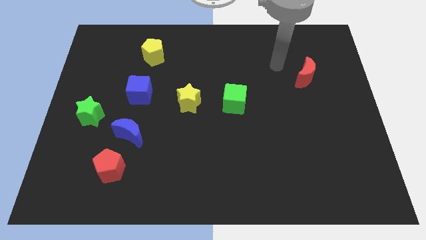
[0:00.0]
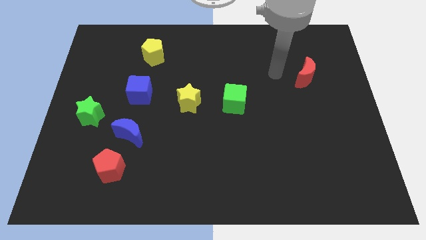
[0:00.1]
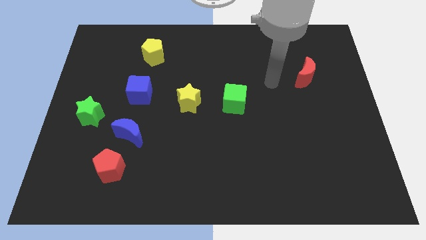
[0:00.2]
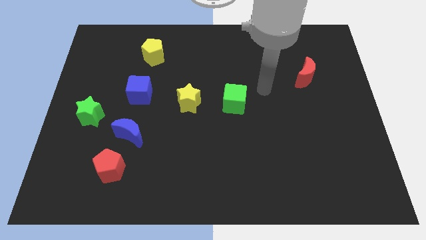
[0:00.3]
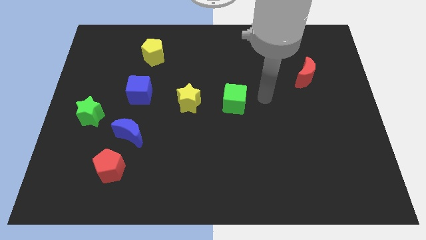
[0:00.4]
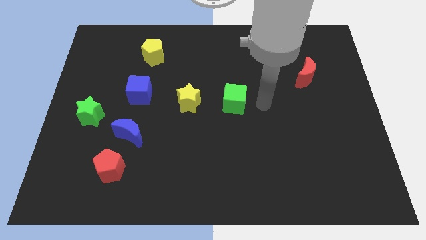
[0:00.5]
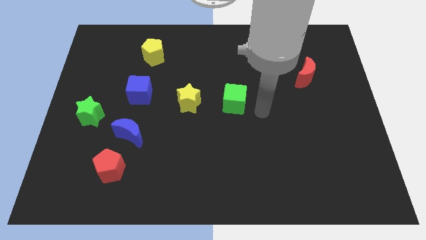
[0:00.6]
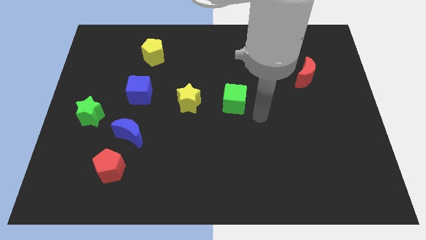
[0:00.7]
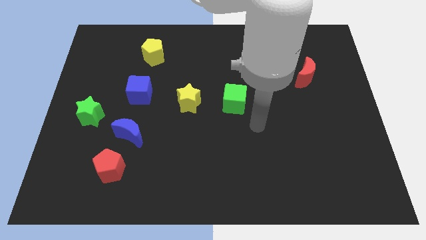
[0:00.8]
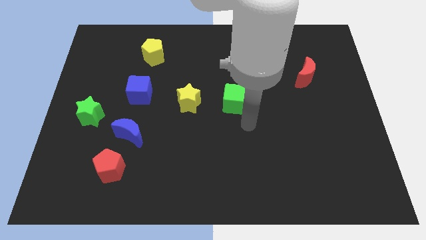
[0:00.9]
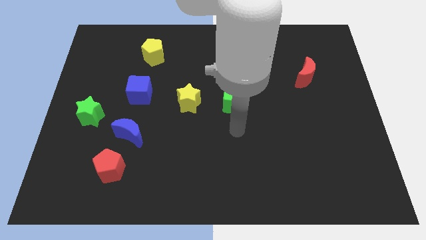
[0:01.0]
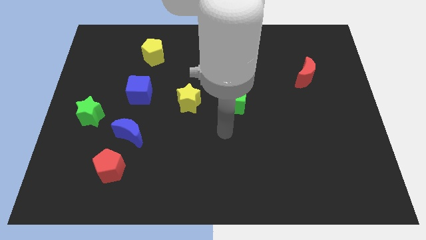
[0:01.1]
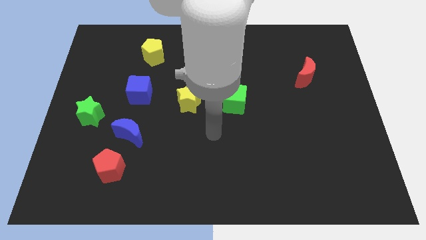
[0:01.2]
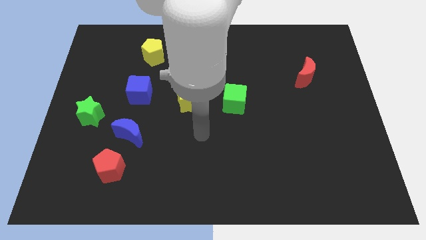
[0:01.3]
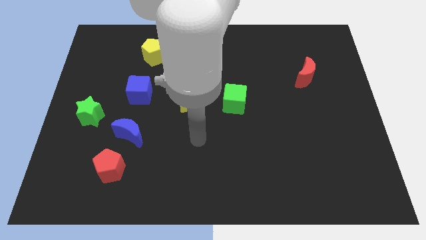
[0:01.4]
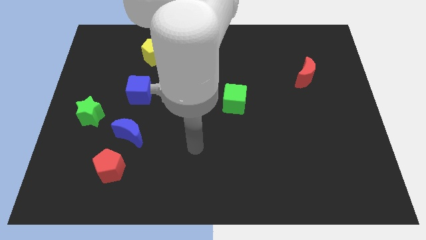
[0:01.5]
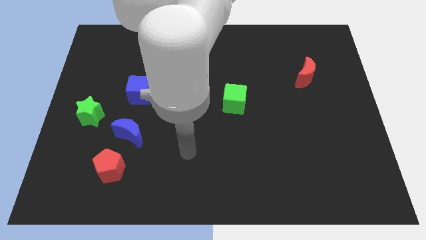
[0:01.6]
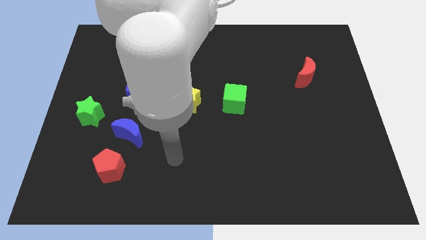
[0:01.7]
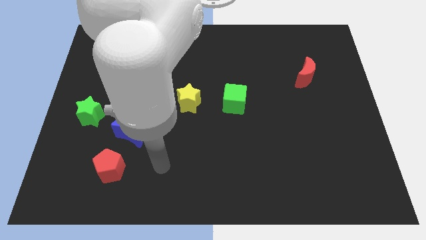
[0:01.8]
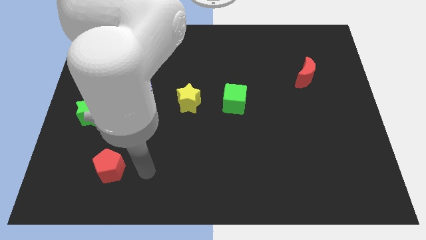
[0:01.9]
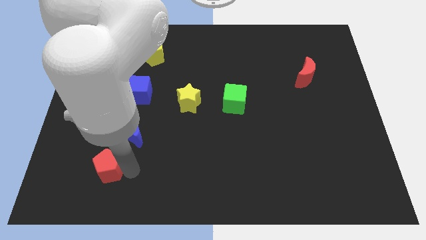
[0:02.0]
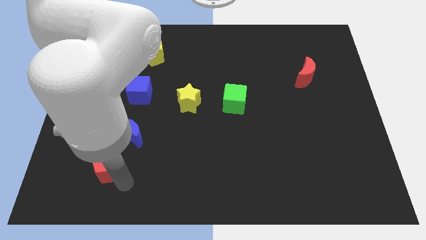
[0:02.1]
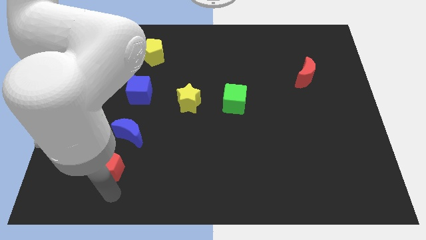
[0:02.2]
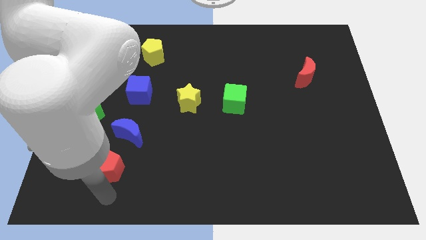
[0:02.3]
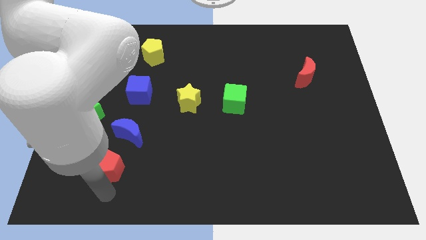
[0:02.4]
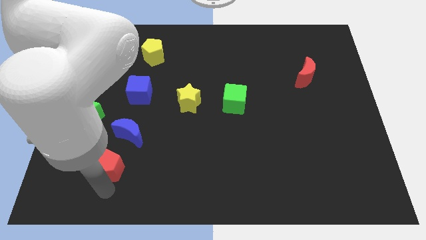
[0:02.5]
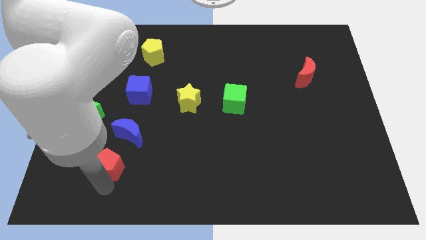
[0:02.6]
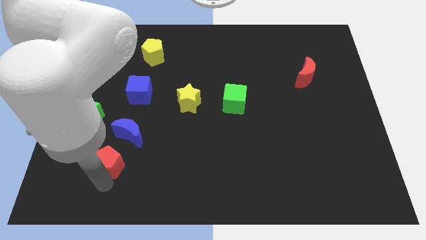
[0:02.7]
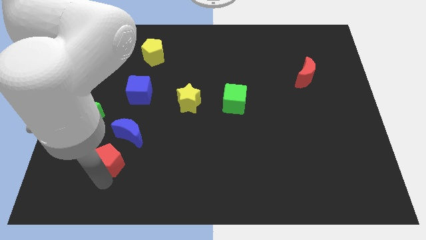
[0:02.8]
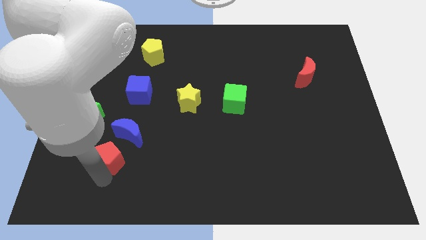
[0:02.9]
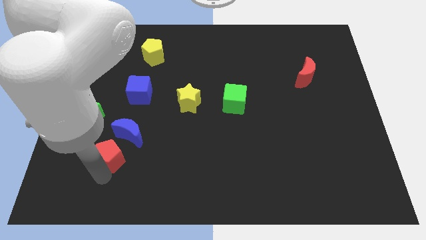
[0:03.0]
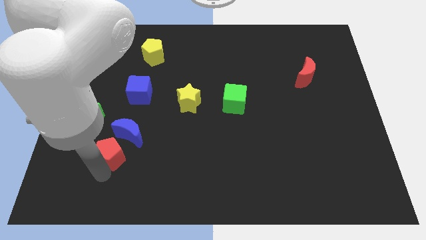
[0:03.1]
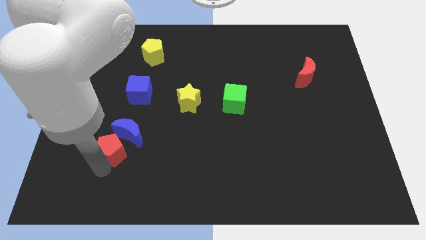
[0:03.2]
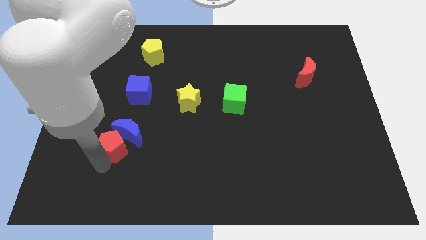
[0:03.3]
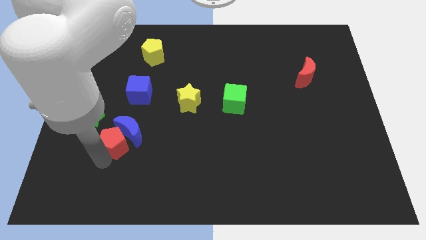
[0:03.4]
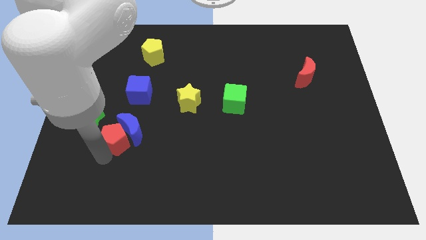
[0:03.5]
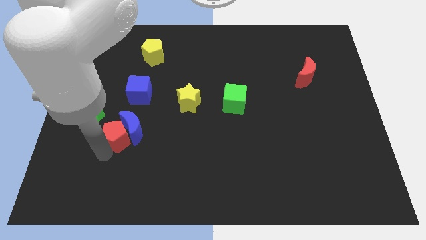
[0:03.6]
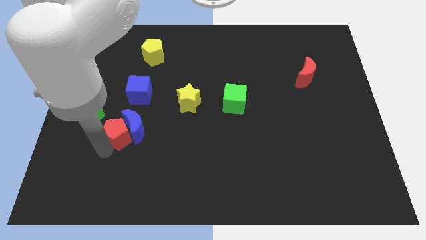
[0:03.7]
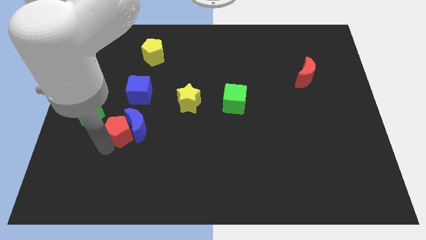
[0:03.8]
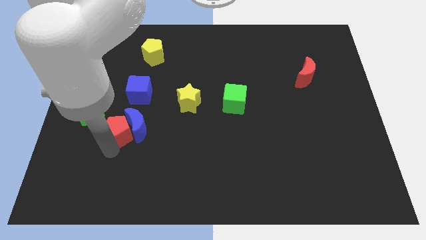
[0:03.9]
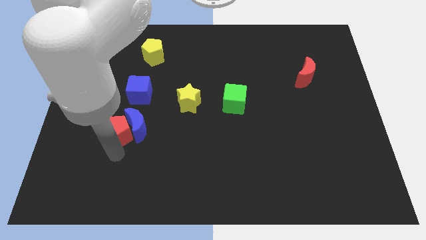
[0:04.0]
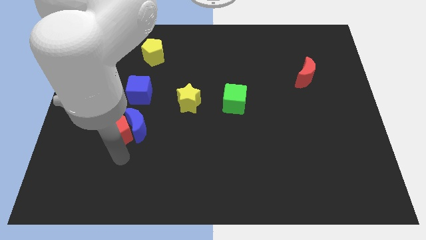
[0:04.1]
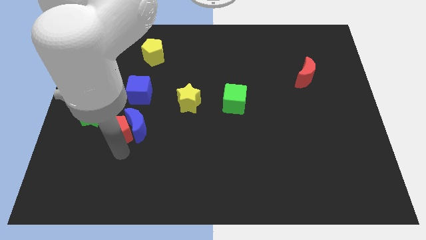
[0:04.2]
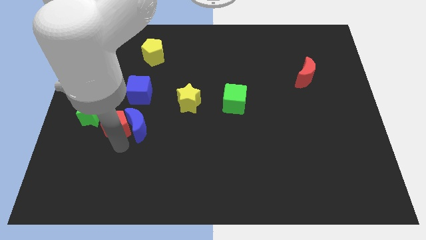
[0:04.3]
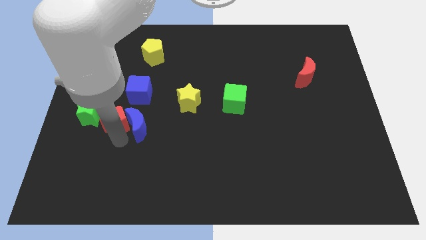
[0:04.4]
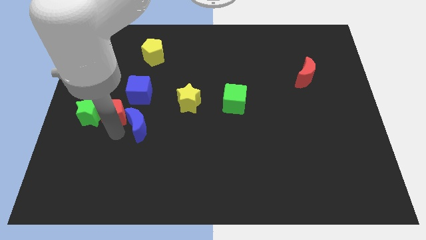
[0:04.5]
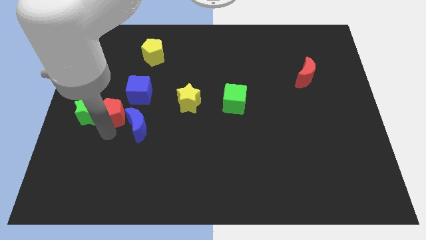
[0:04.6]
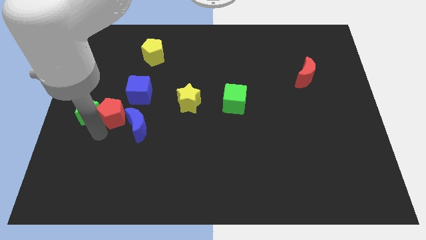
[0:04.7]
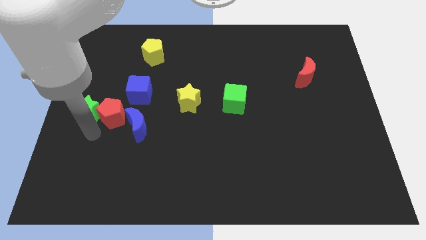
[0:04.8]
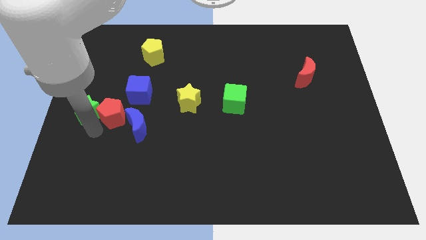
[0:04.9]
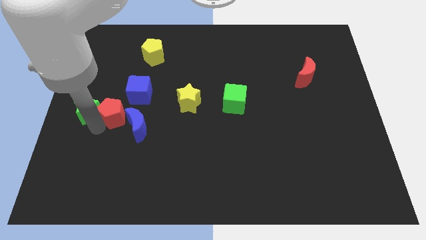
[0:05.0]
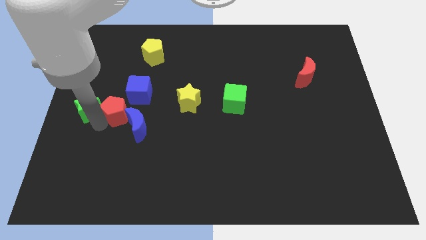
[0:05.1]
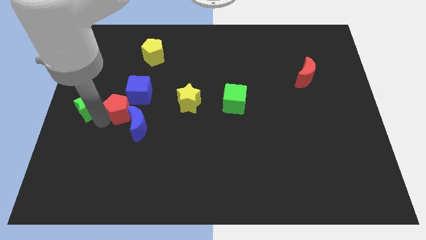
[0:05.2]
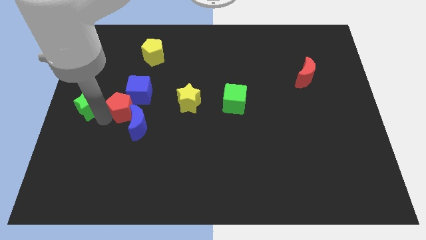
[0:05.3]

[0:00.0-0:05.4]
put the red pentagon close to the blue cube

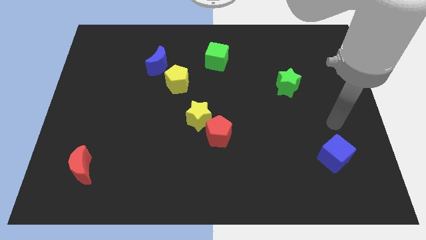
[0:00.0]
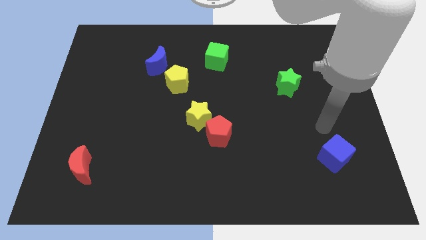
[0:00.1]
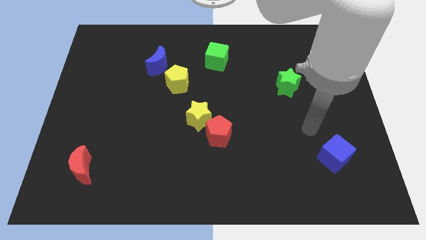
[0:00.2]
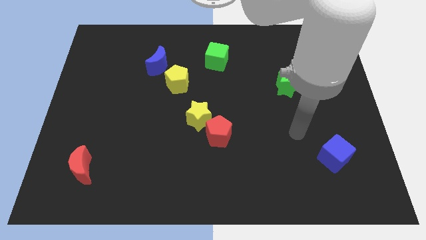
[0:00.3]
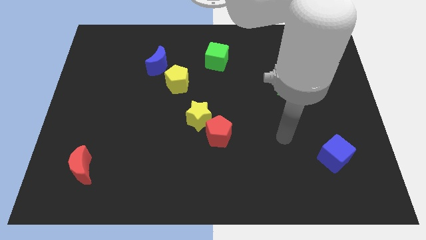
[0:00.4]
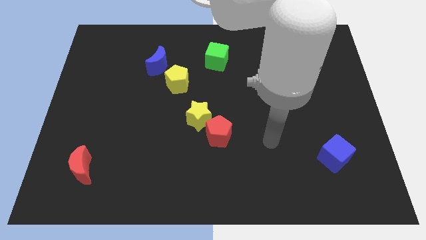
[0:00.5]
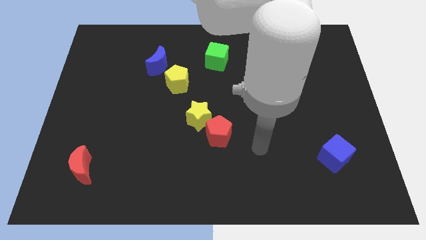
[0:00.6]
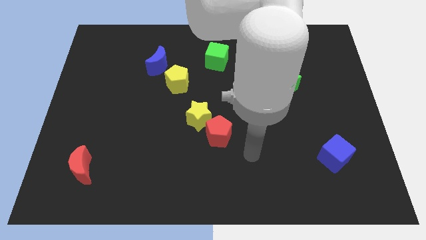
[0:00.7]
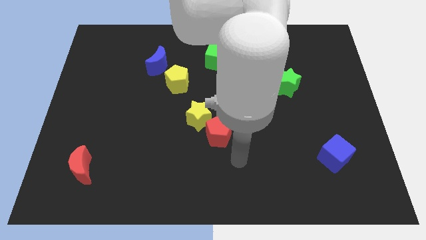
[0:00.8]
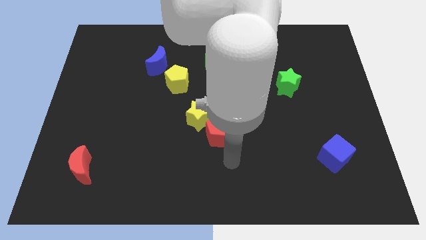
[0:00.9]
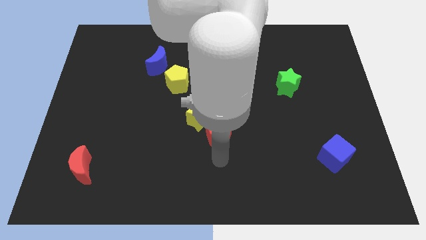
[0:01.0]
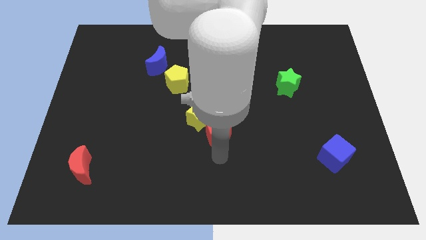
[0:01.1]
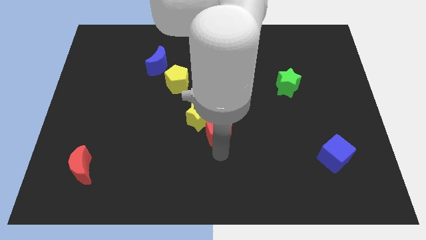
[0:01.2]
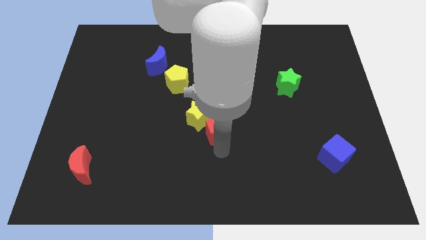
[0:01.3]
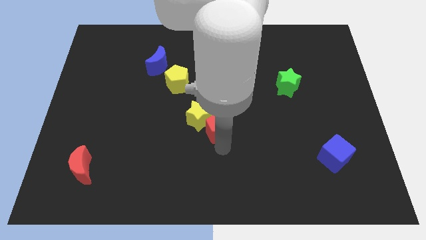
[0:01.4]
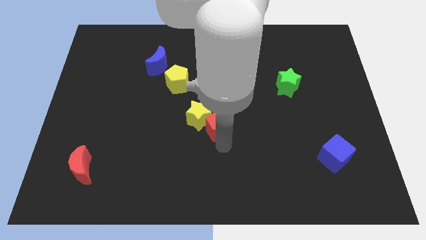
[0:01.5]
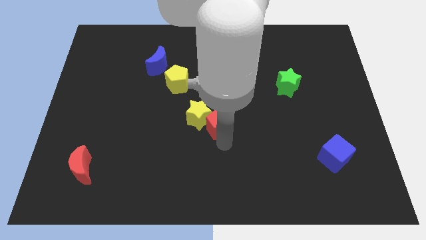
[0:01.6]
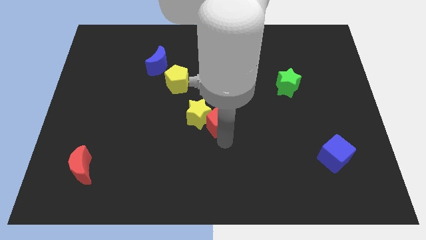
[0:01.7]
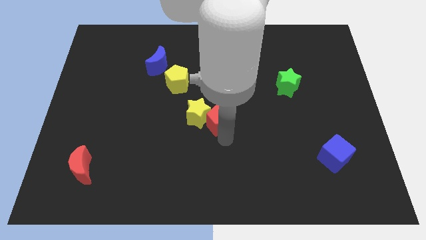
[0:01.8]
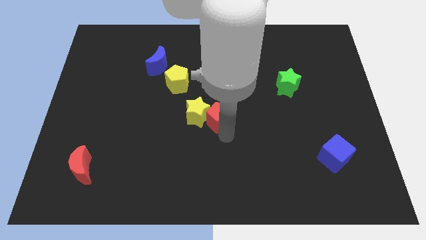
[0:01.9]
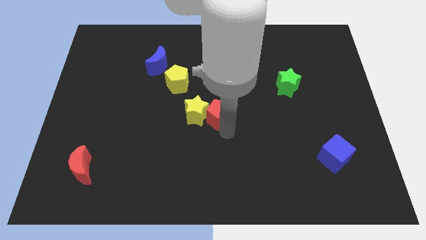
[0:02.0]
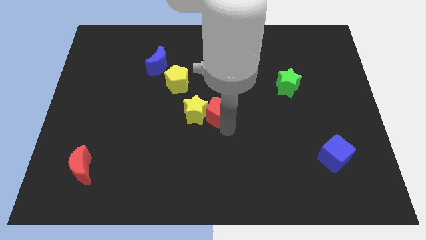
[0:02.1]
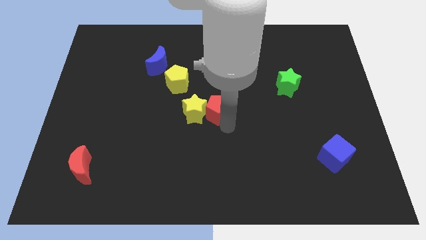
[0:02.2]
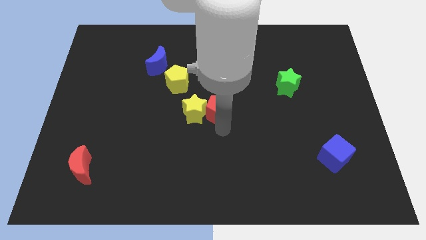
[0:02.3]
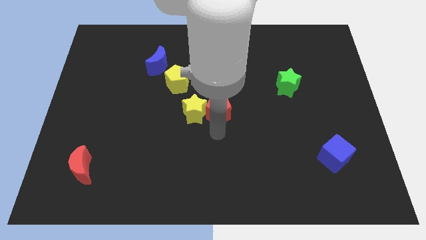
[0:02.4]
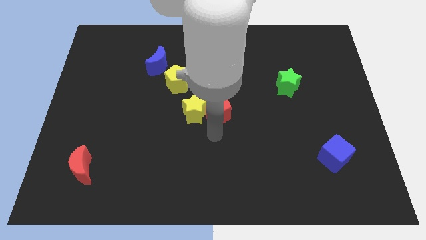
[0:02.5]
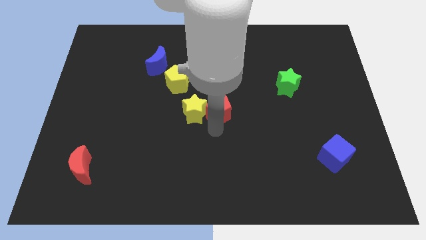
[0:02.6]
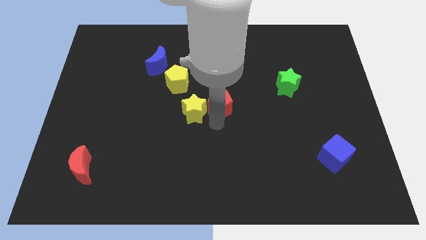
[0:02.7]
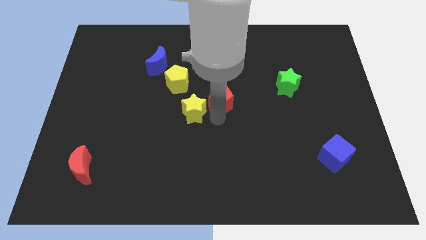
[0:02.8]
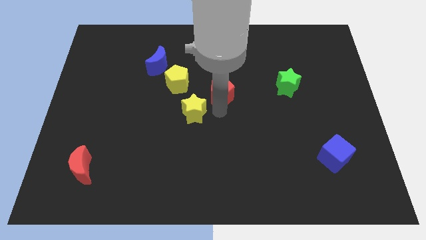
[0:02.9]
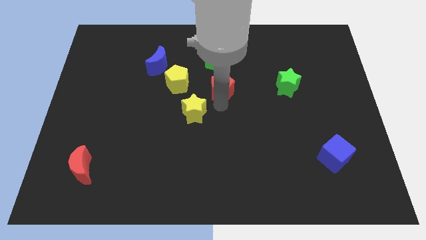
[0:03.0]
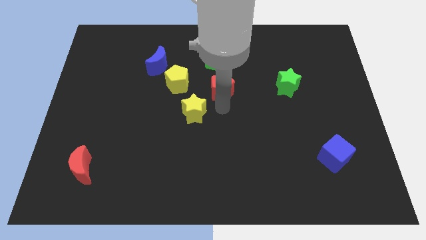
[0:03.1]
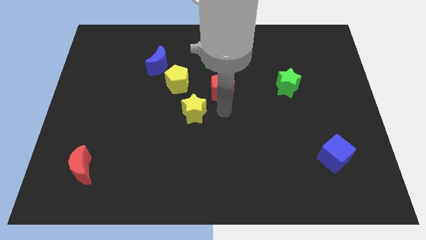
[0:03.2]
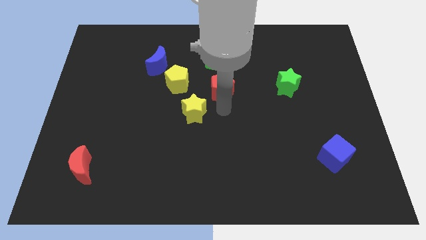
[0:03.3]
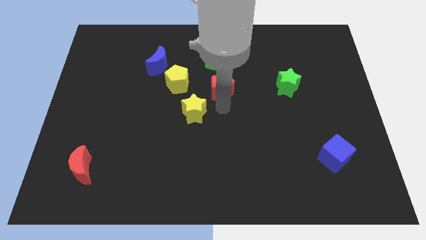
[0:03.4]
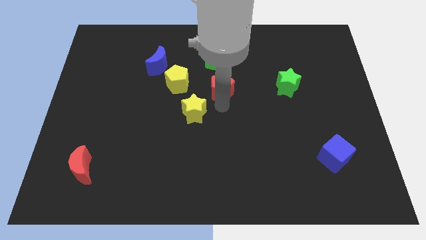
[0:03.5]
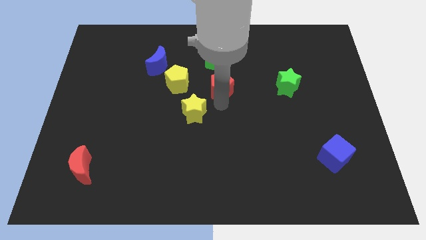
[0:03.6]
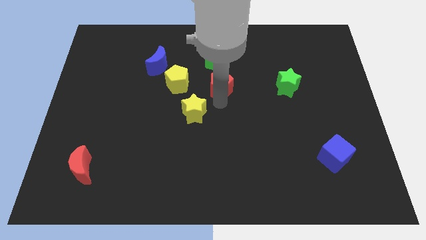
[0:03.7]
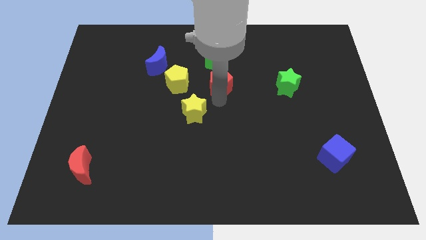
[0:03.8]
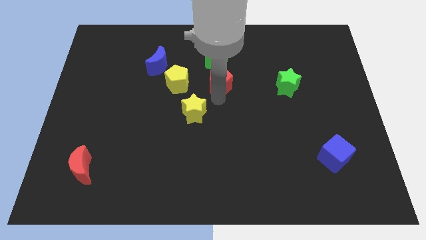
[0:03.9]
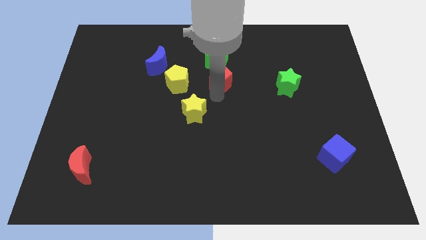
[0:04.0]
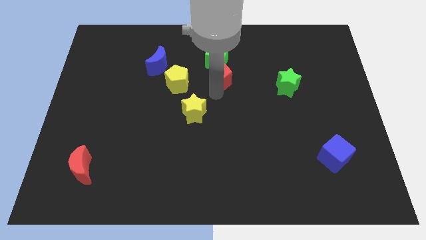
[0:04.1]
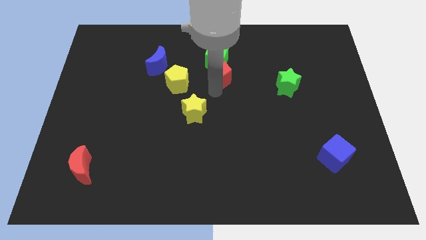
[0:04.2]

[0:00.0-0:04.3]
push the red pentagon towards the green cube
